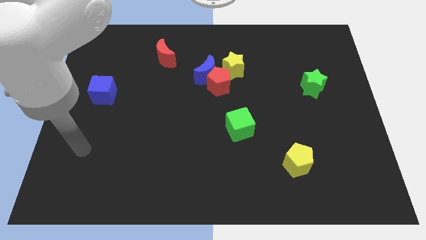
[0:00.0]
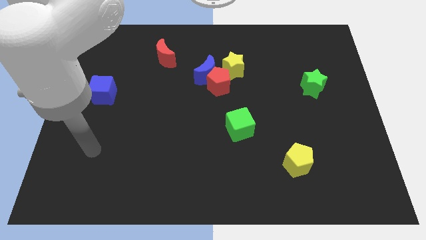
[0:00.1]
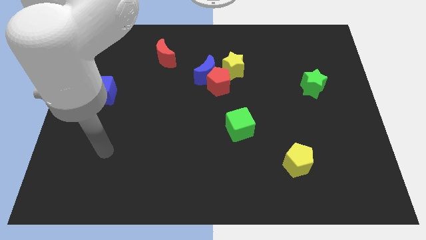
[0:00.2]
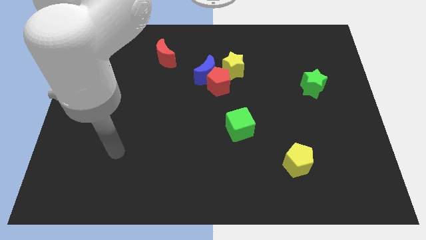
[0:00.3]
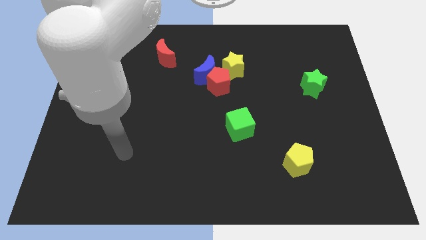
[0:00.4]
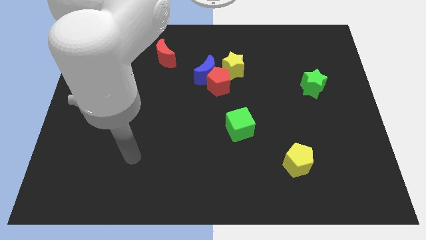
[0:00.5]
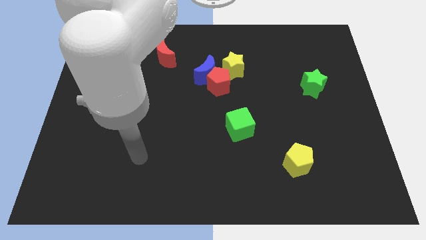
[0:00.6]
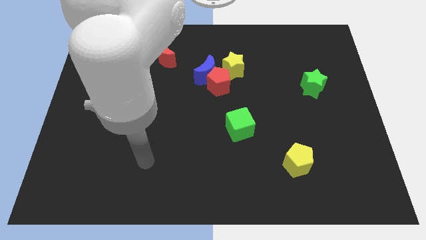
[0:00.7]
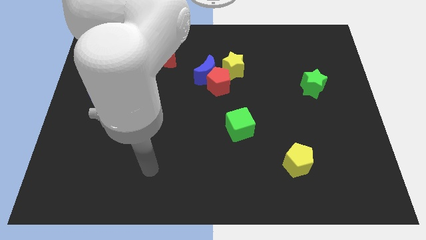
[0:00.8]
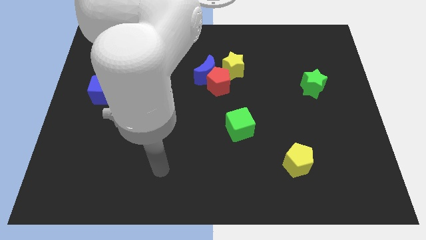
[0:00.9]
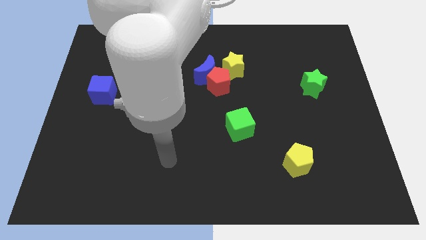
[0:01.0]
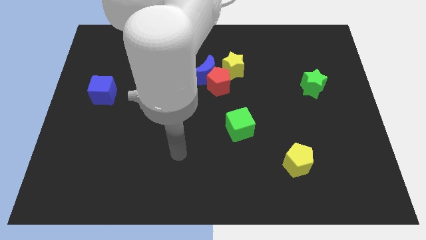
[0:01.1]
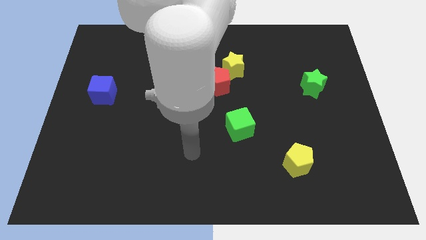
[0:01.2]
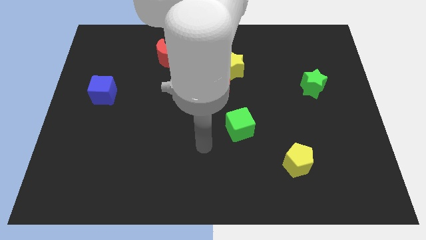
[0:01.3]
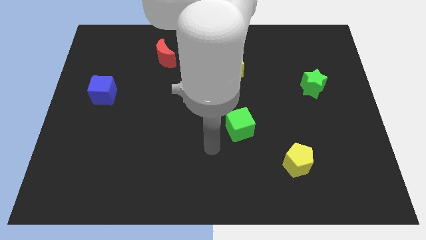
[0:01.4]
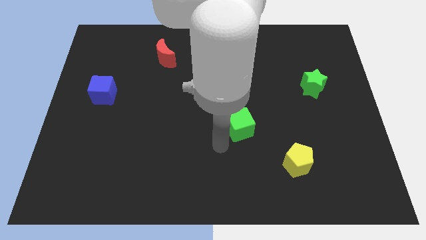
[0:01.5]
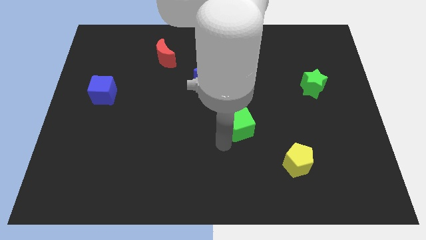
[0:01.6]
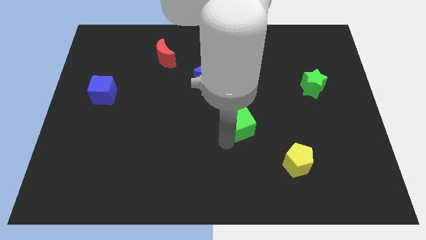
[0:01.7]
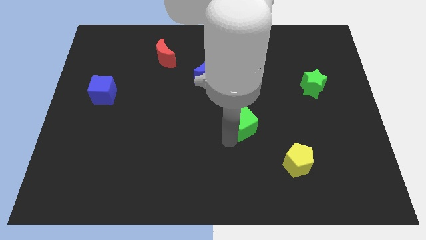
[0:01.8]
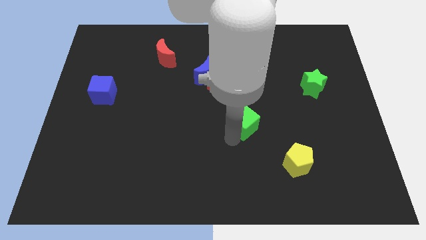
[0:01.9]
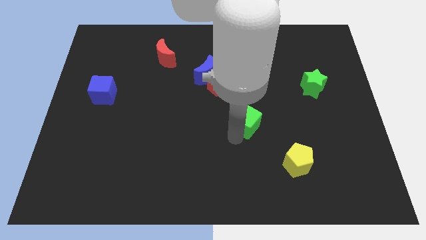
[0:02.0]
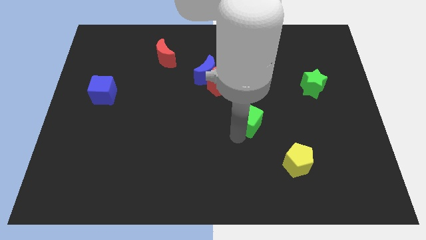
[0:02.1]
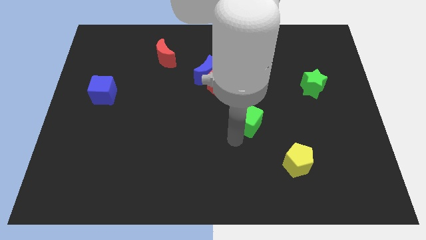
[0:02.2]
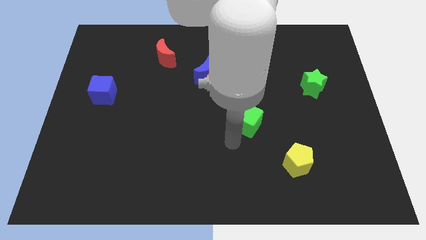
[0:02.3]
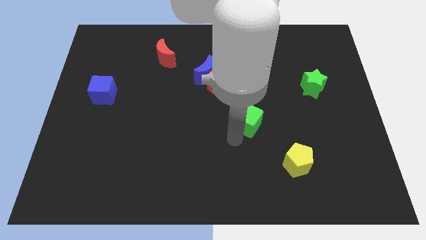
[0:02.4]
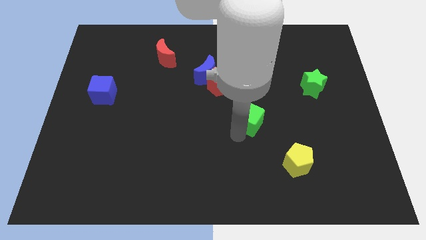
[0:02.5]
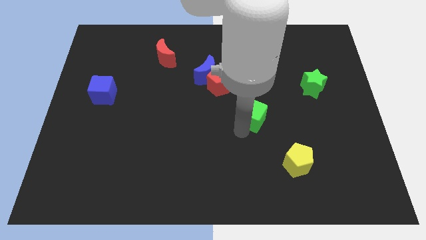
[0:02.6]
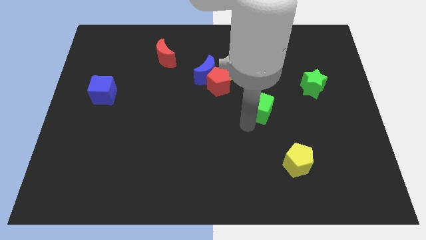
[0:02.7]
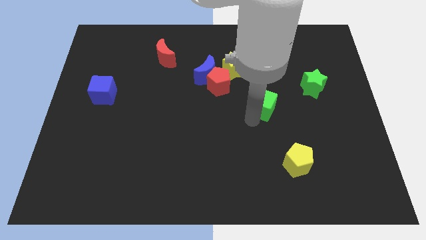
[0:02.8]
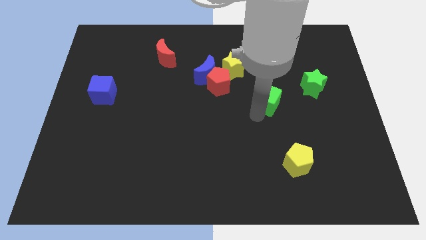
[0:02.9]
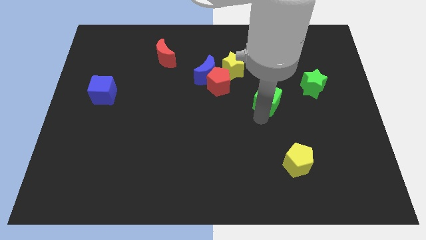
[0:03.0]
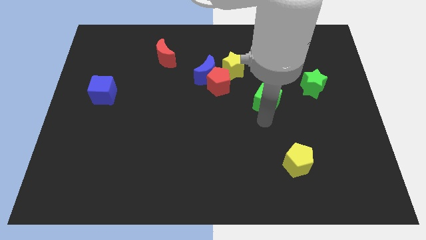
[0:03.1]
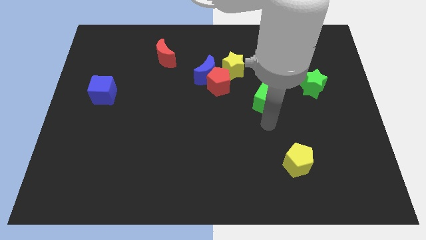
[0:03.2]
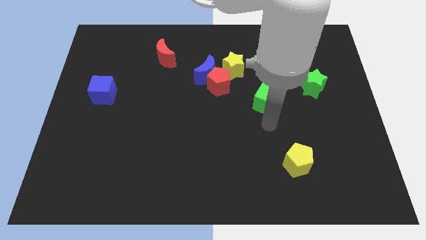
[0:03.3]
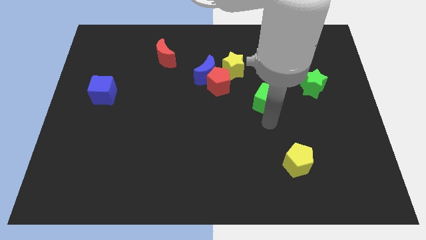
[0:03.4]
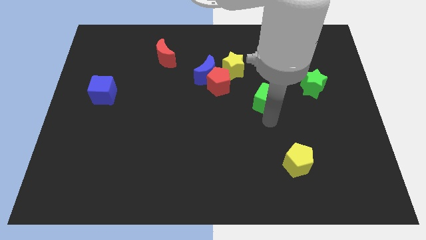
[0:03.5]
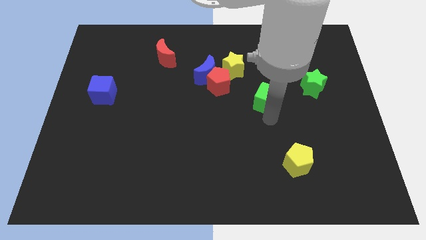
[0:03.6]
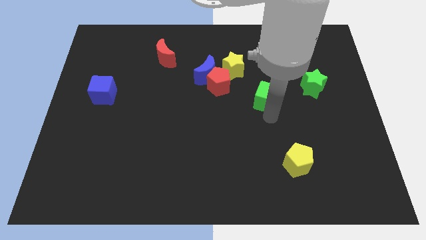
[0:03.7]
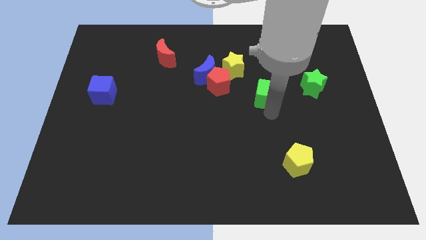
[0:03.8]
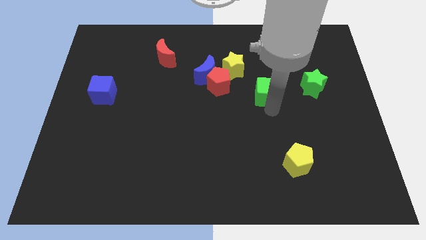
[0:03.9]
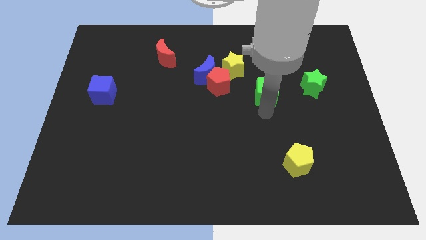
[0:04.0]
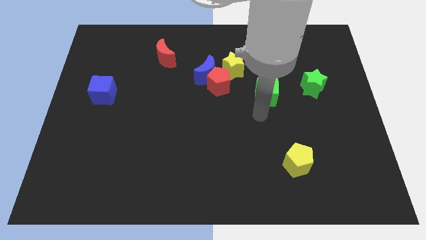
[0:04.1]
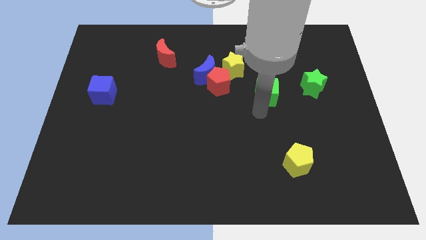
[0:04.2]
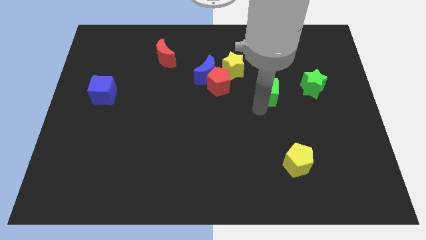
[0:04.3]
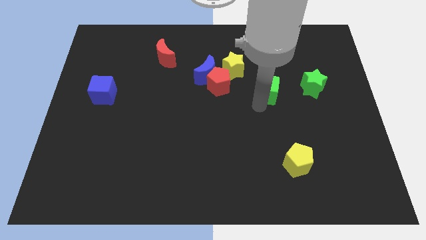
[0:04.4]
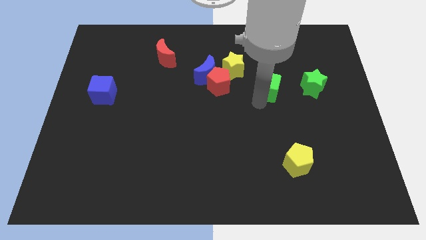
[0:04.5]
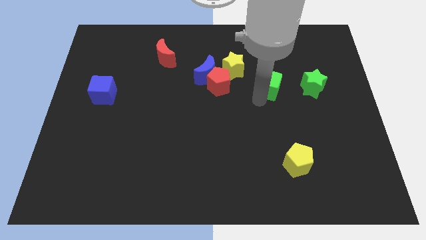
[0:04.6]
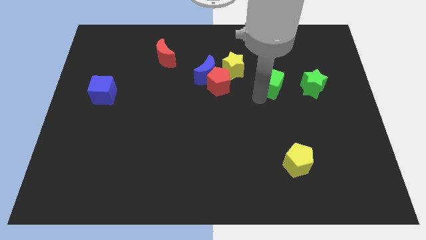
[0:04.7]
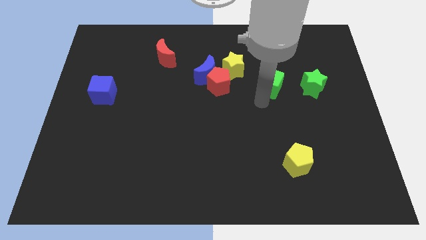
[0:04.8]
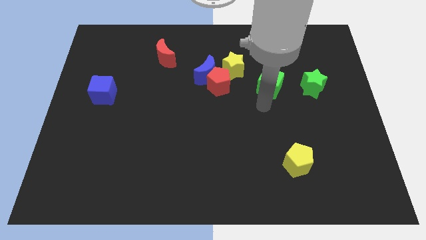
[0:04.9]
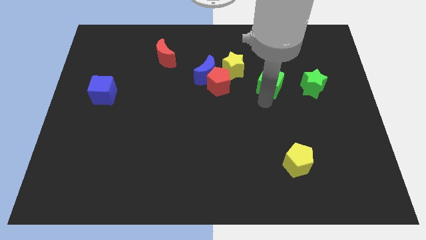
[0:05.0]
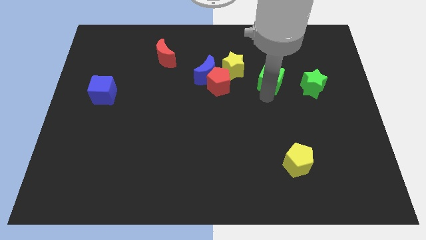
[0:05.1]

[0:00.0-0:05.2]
push the green cube right of the yellow star

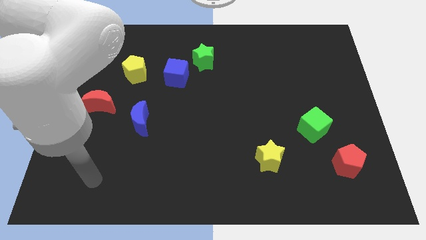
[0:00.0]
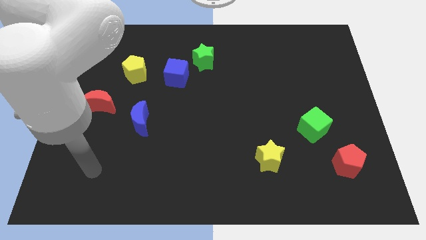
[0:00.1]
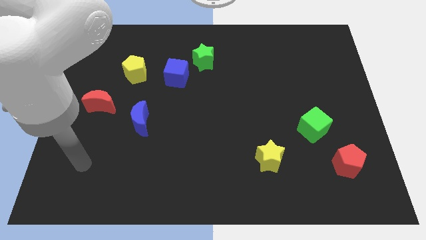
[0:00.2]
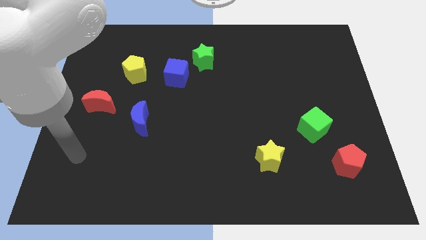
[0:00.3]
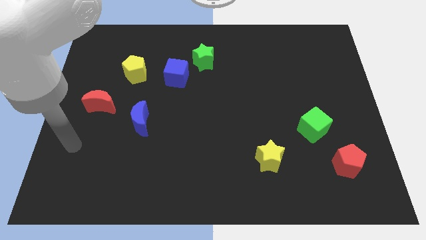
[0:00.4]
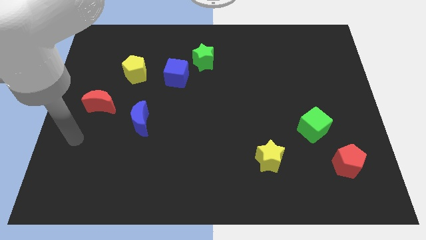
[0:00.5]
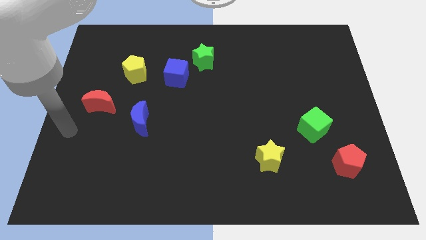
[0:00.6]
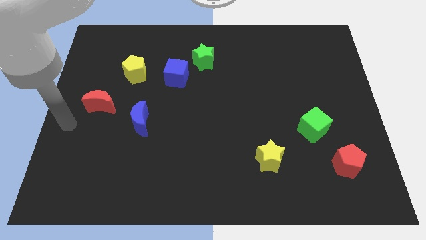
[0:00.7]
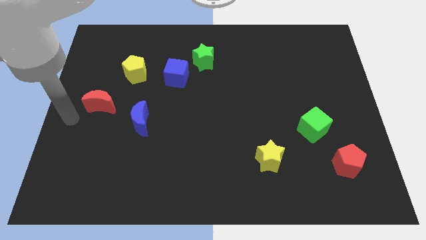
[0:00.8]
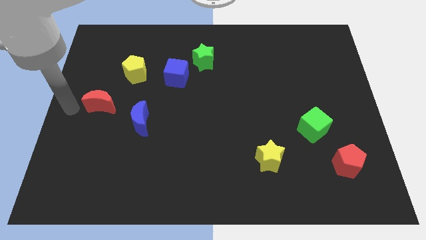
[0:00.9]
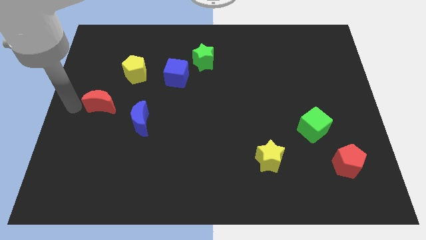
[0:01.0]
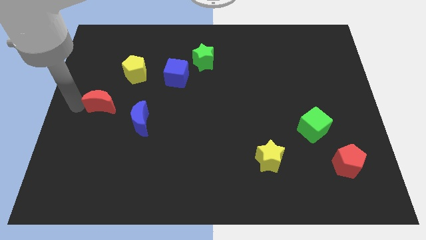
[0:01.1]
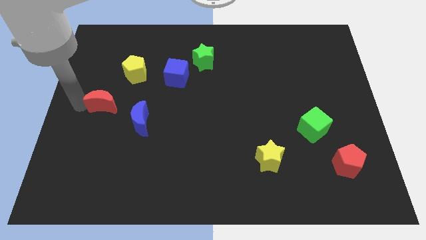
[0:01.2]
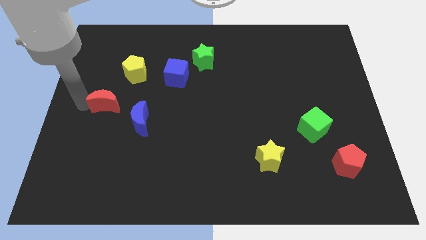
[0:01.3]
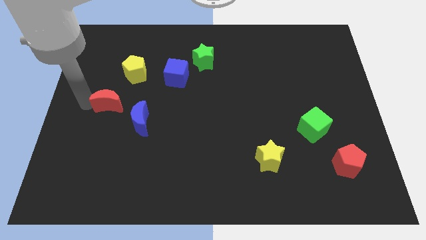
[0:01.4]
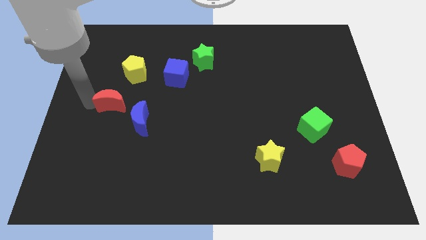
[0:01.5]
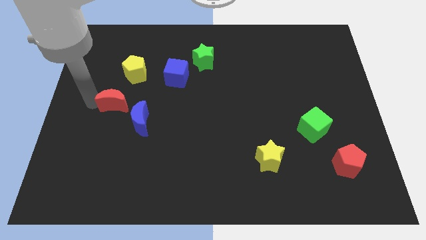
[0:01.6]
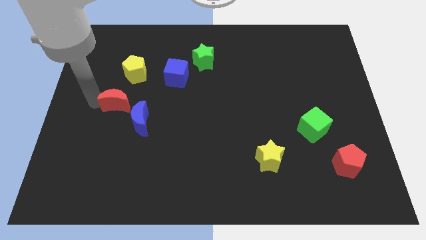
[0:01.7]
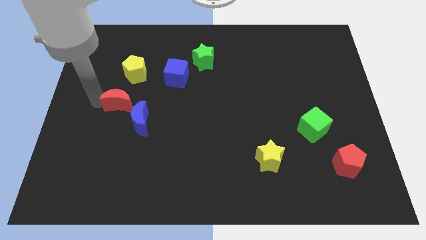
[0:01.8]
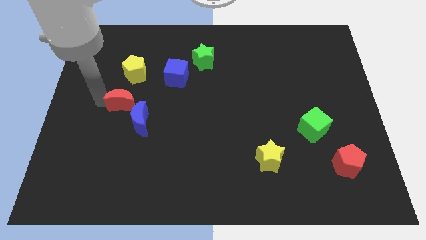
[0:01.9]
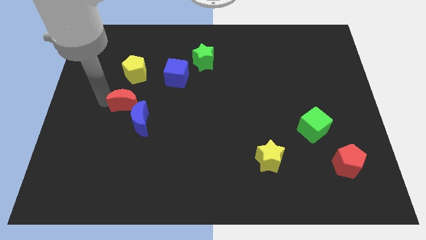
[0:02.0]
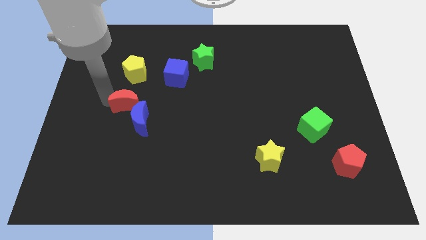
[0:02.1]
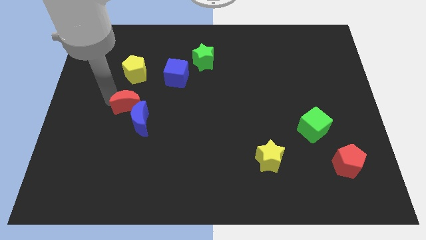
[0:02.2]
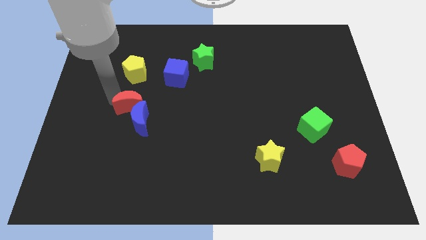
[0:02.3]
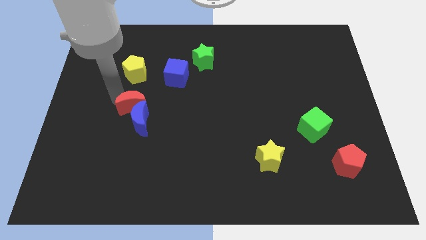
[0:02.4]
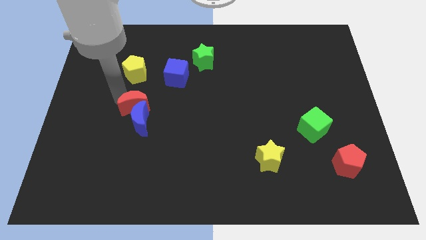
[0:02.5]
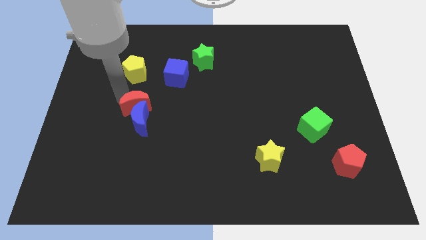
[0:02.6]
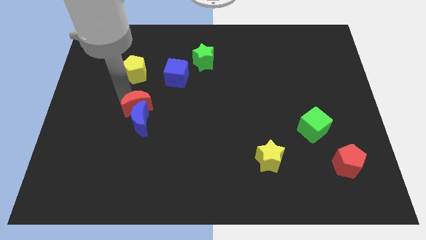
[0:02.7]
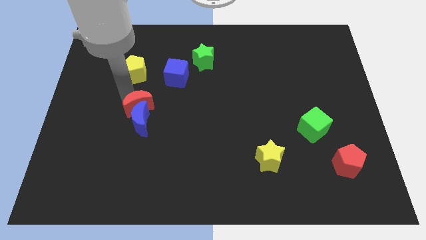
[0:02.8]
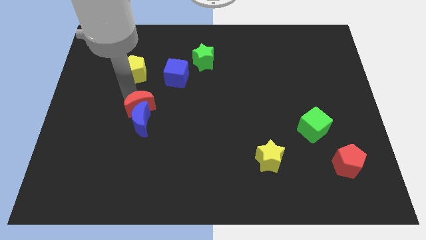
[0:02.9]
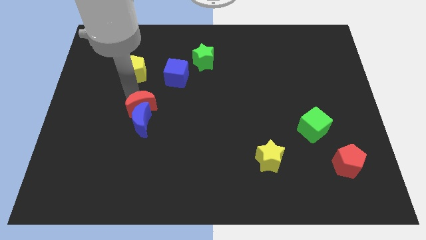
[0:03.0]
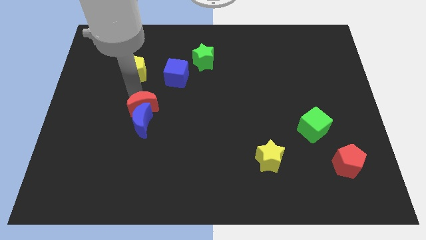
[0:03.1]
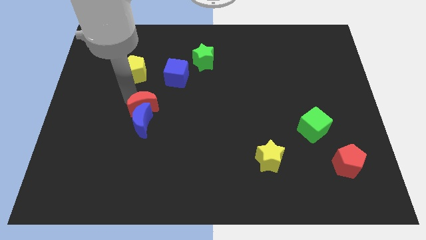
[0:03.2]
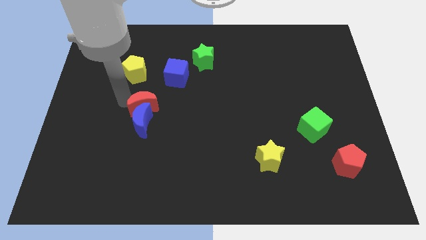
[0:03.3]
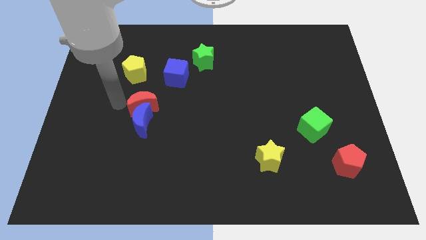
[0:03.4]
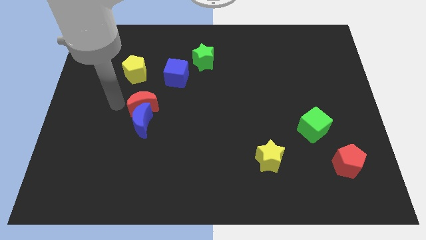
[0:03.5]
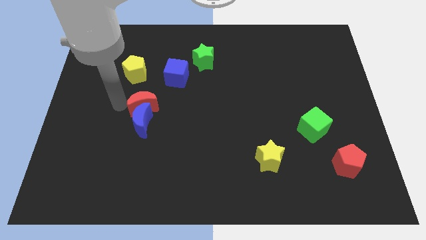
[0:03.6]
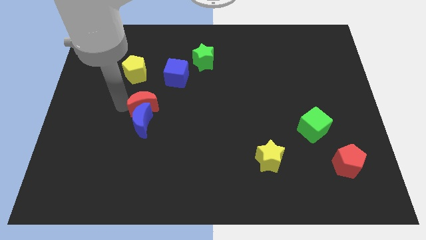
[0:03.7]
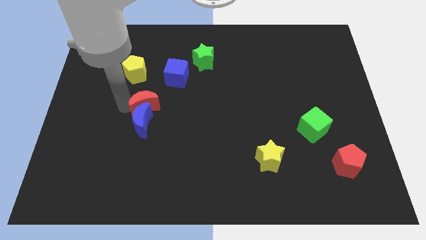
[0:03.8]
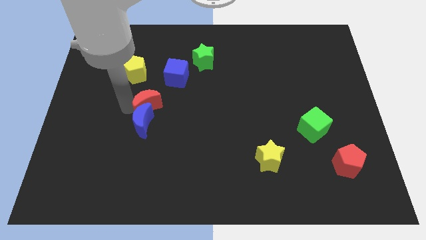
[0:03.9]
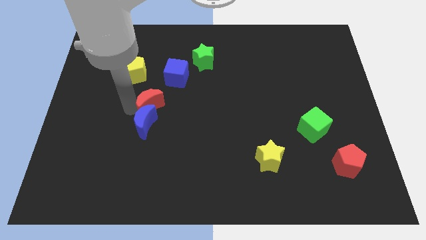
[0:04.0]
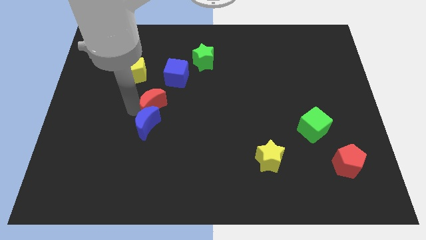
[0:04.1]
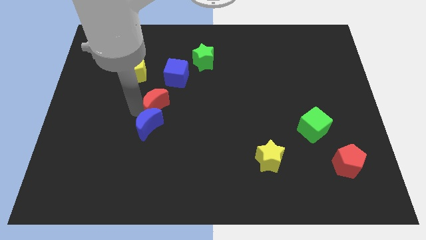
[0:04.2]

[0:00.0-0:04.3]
put the red moon to the bottom of the blue cube
